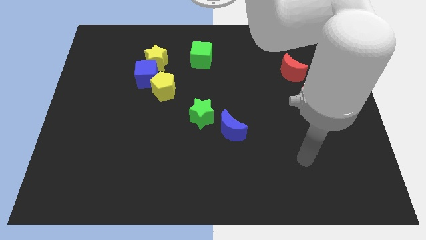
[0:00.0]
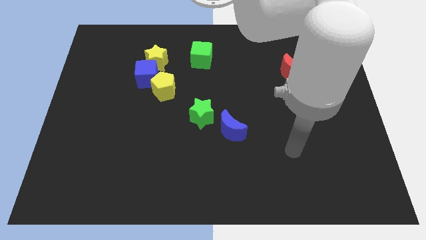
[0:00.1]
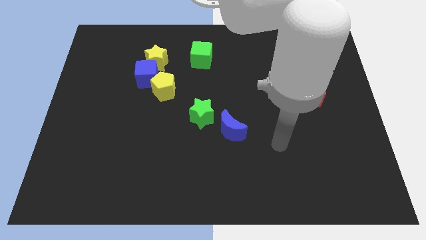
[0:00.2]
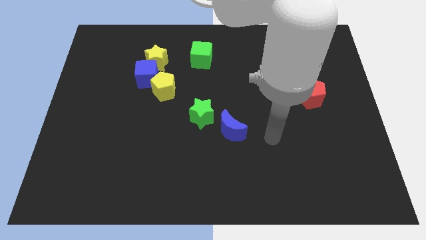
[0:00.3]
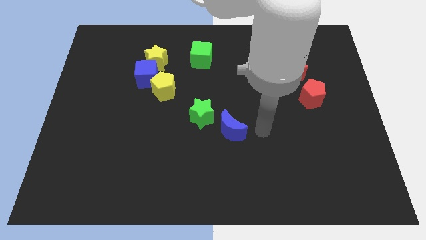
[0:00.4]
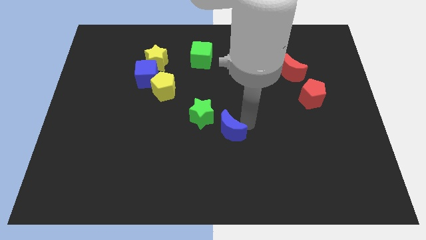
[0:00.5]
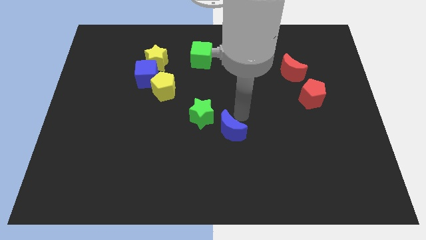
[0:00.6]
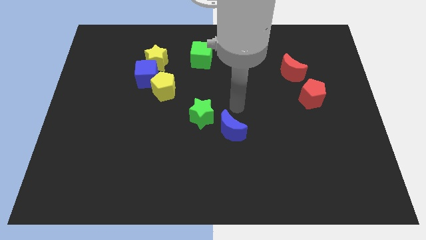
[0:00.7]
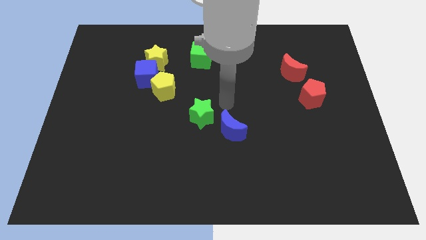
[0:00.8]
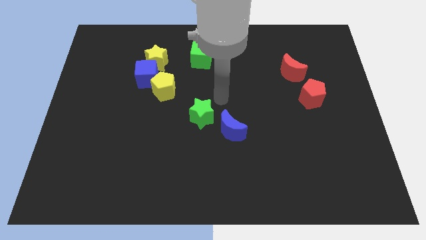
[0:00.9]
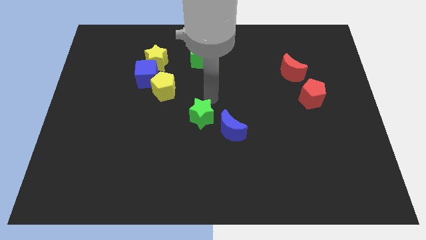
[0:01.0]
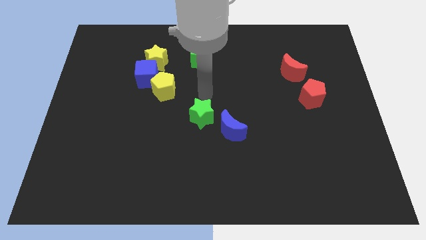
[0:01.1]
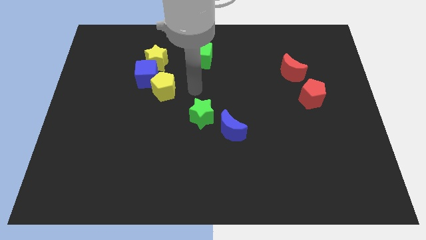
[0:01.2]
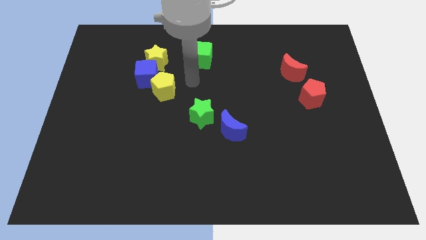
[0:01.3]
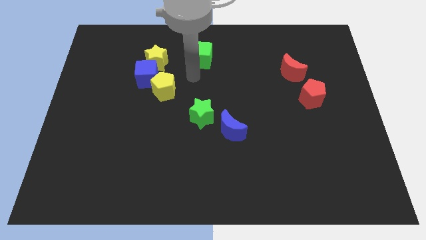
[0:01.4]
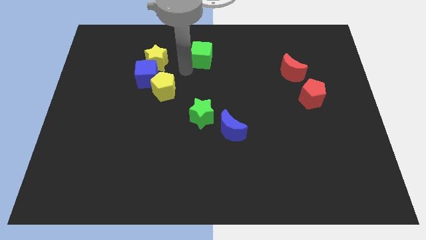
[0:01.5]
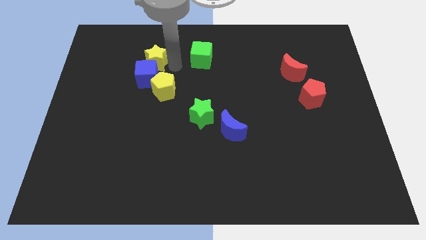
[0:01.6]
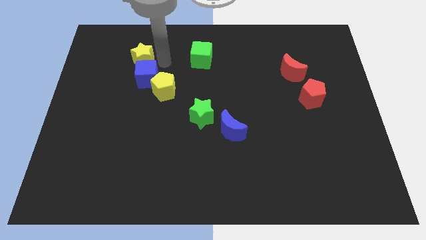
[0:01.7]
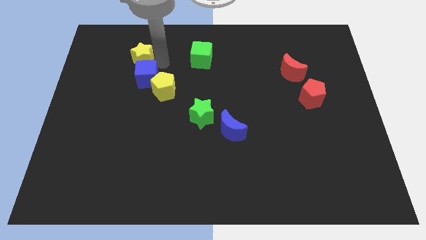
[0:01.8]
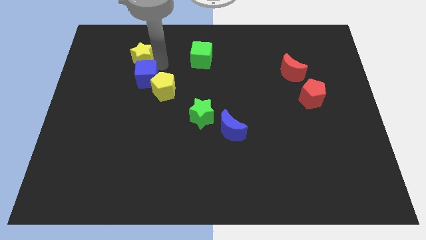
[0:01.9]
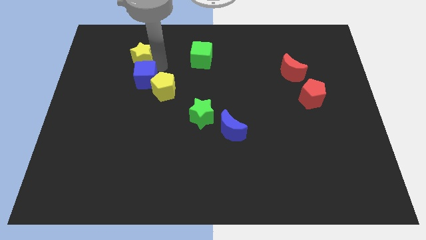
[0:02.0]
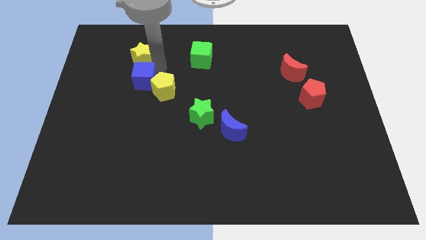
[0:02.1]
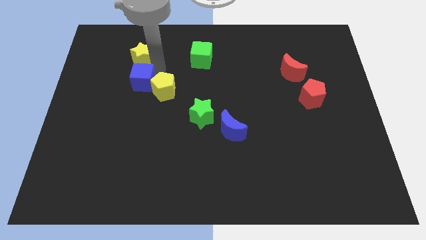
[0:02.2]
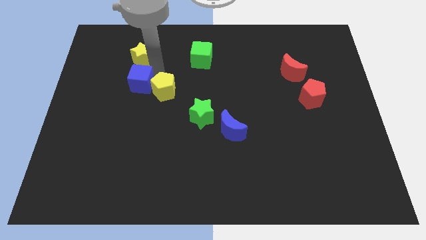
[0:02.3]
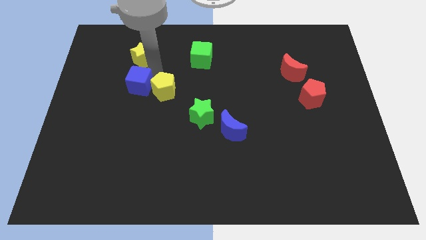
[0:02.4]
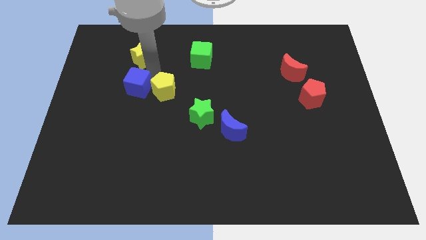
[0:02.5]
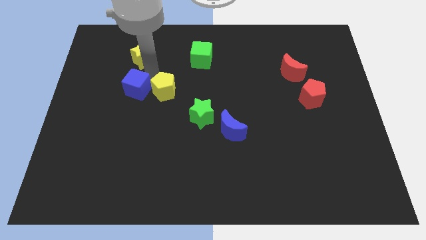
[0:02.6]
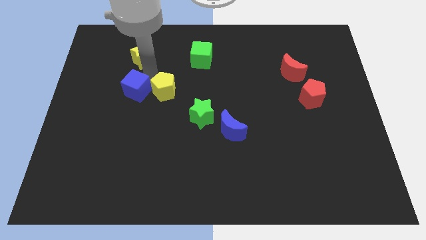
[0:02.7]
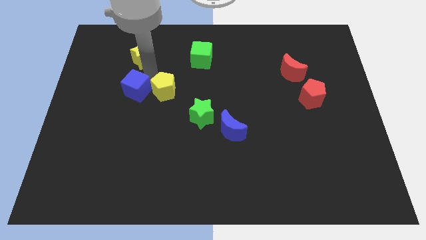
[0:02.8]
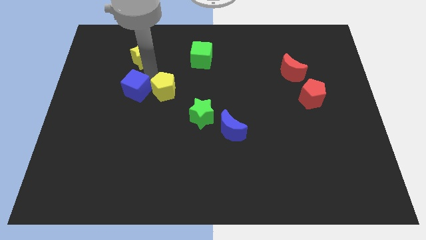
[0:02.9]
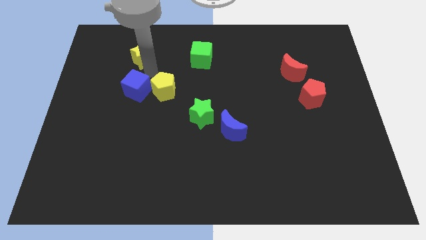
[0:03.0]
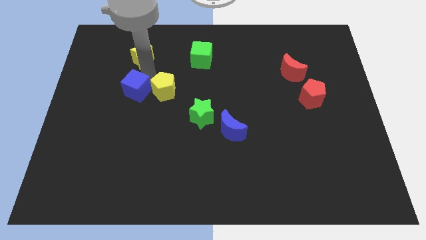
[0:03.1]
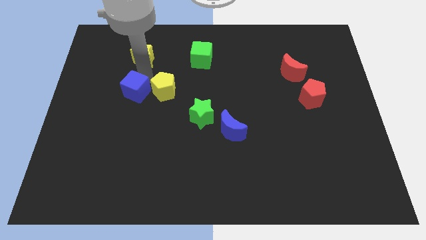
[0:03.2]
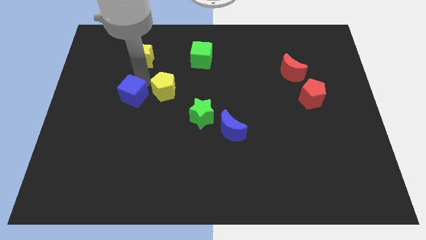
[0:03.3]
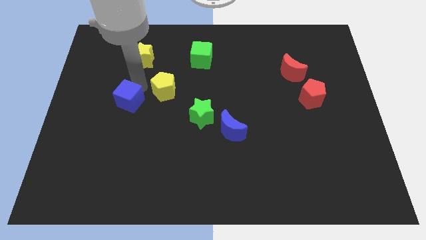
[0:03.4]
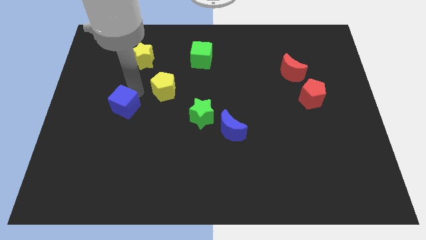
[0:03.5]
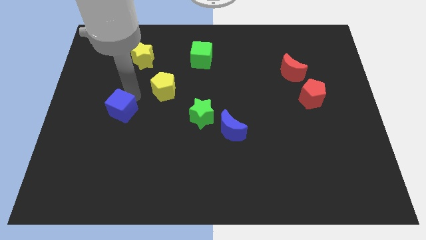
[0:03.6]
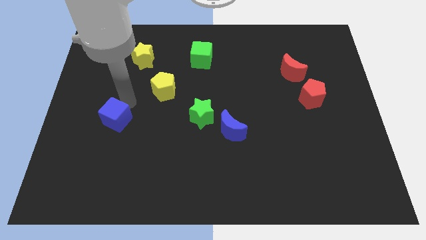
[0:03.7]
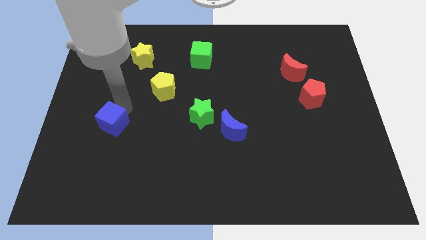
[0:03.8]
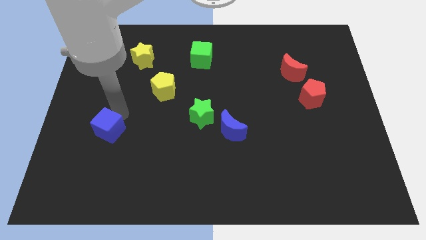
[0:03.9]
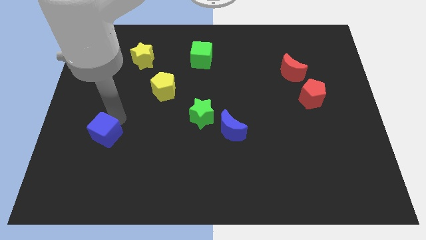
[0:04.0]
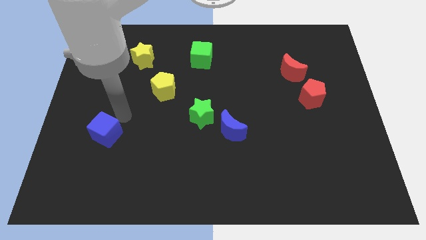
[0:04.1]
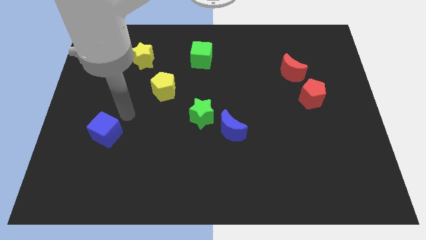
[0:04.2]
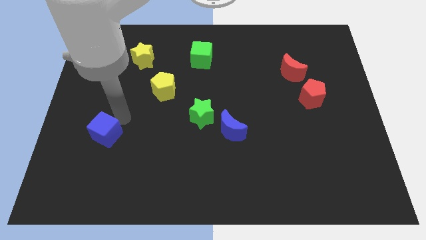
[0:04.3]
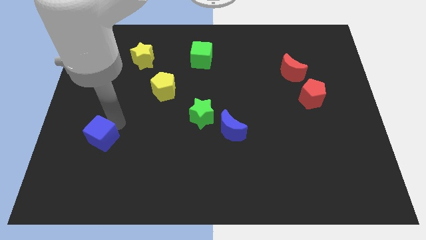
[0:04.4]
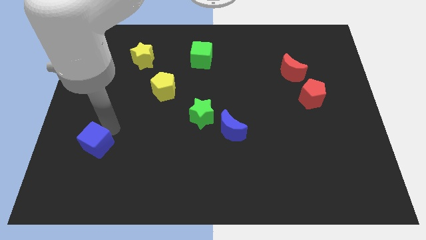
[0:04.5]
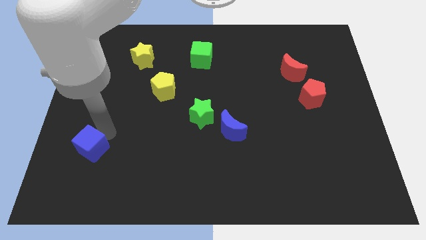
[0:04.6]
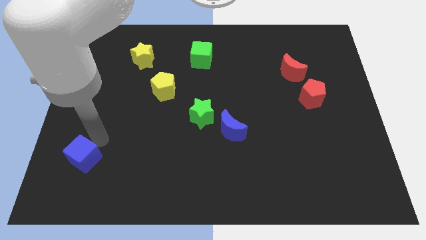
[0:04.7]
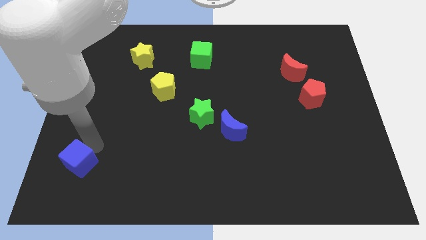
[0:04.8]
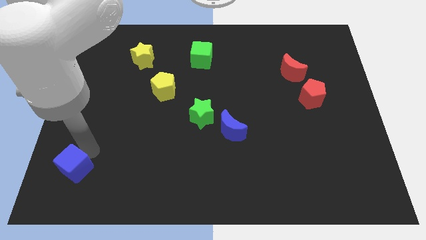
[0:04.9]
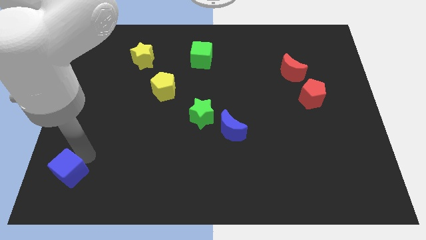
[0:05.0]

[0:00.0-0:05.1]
put the blue cube to the lower left corner

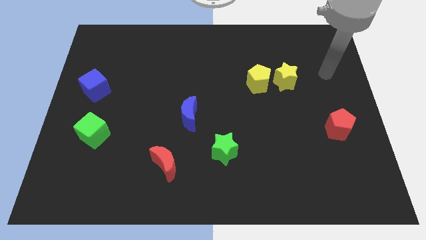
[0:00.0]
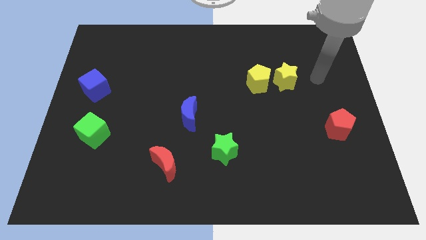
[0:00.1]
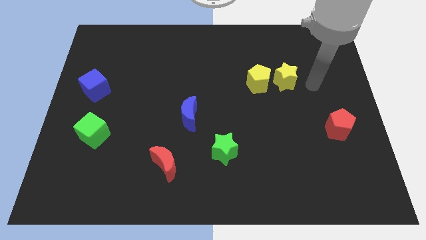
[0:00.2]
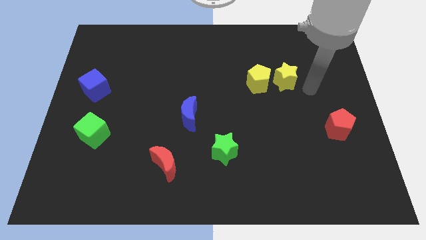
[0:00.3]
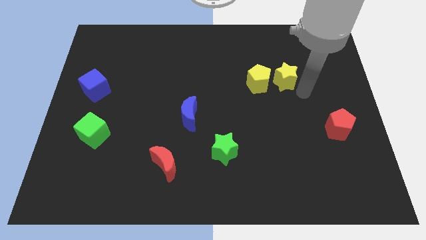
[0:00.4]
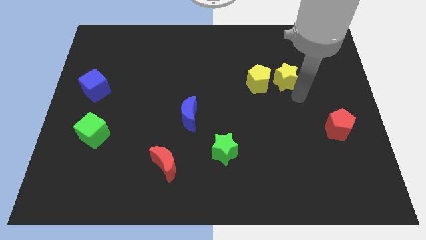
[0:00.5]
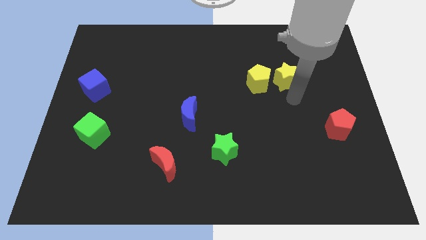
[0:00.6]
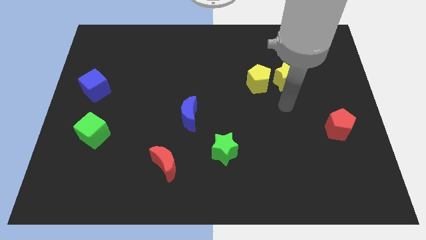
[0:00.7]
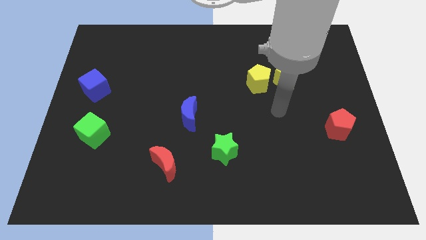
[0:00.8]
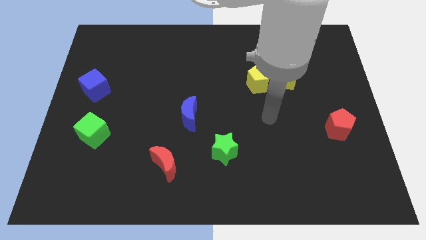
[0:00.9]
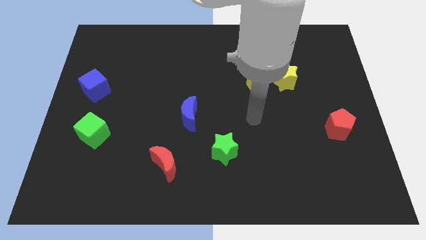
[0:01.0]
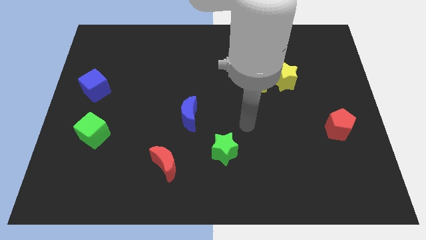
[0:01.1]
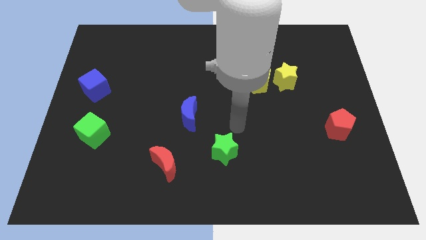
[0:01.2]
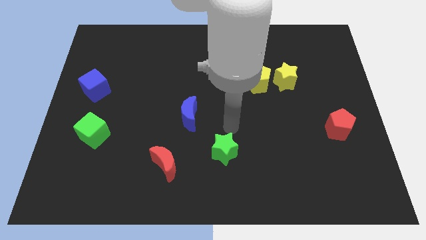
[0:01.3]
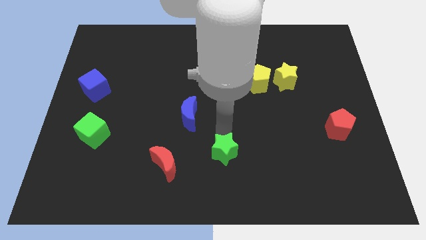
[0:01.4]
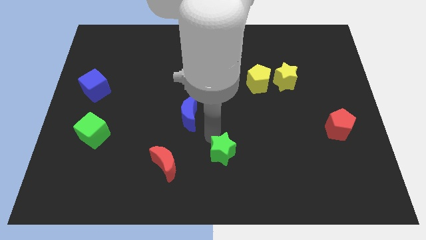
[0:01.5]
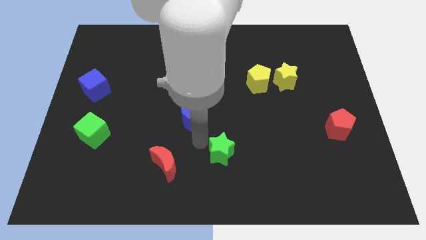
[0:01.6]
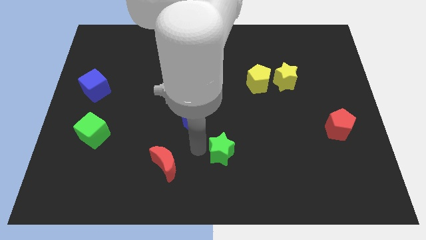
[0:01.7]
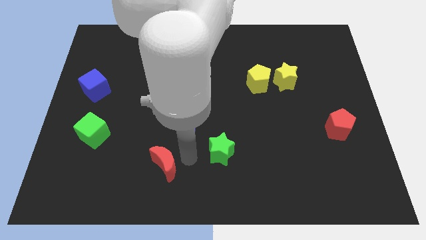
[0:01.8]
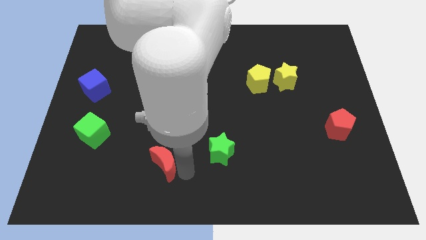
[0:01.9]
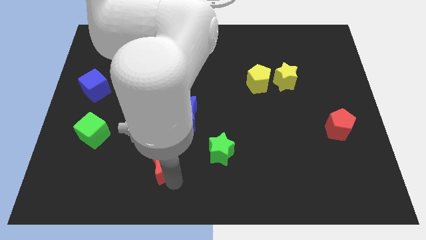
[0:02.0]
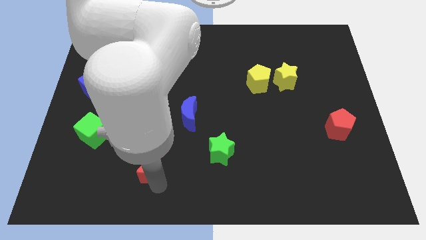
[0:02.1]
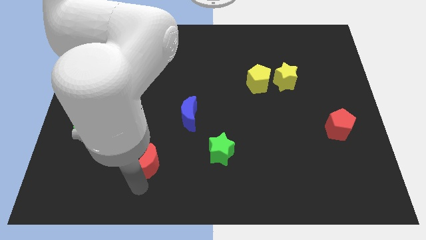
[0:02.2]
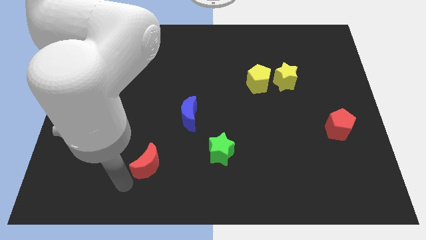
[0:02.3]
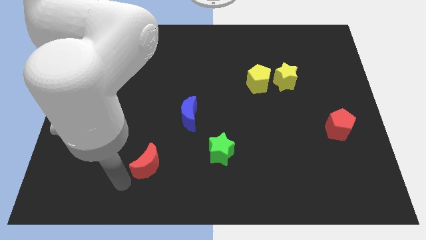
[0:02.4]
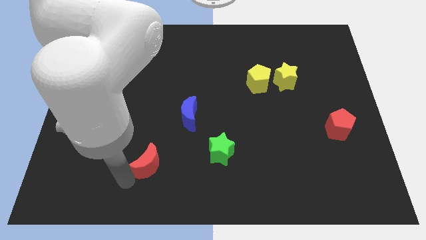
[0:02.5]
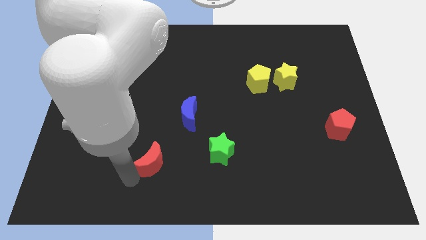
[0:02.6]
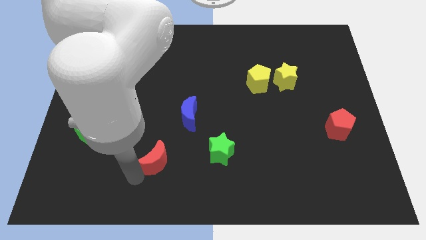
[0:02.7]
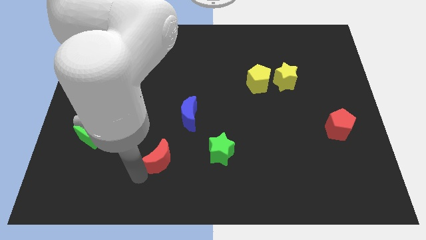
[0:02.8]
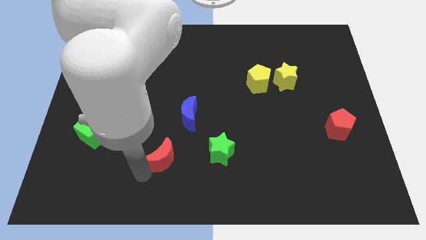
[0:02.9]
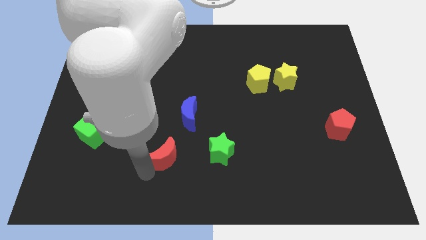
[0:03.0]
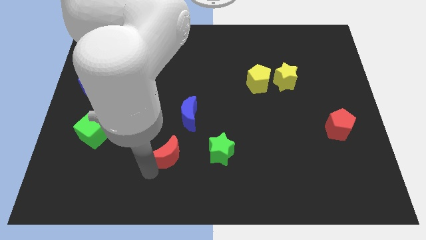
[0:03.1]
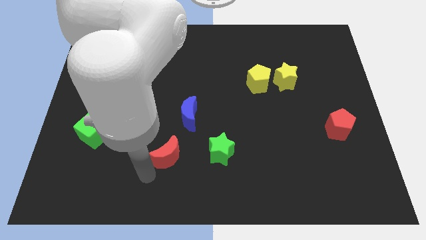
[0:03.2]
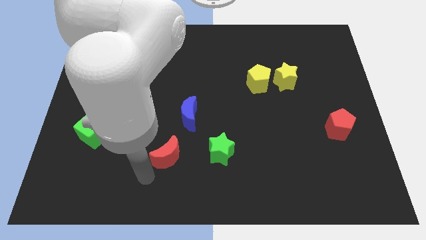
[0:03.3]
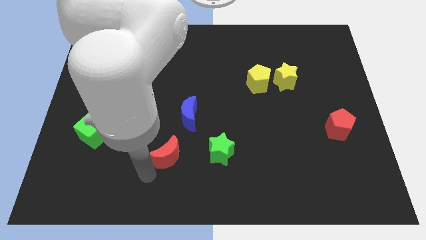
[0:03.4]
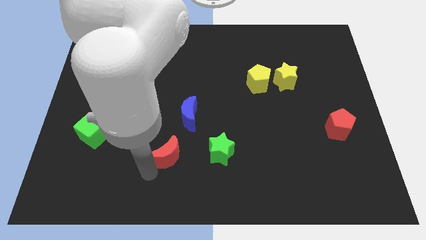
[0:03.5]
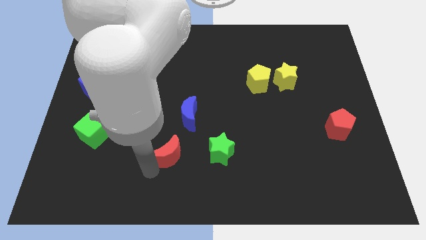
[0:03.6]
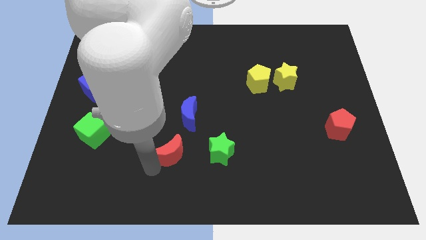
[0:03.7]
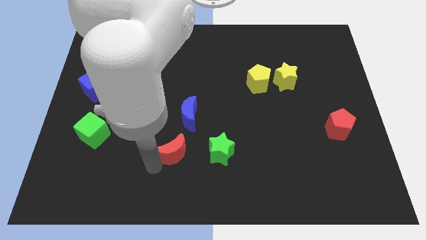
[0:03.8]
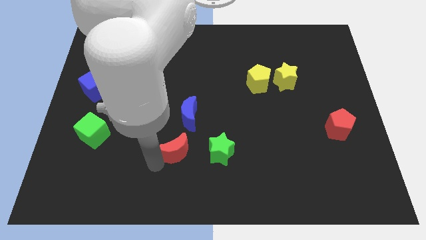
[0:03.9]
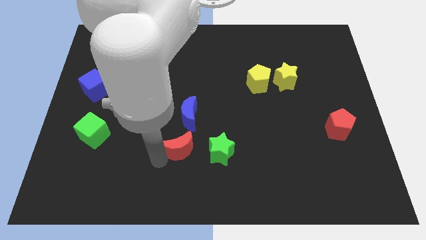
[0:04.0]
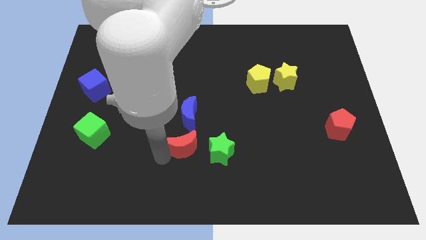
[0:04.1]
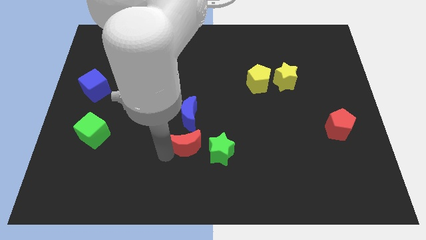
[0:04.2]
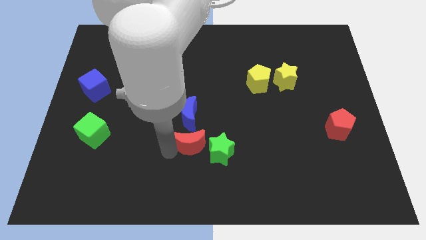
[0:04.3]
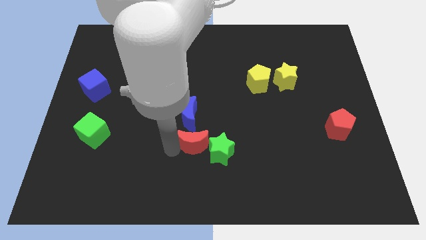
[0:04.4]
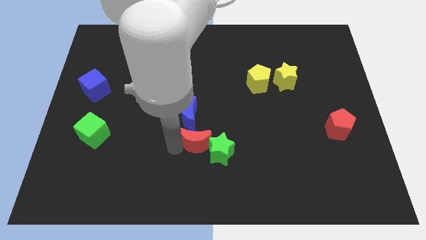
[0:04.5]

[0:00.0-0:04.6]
slide the red moon to the center of the board
